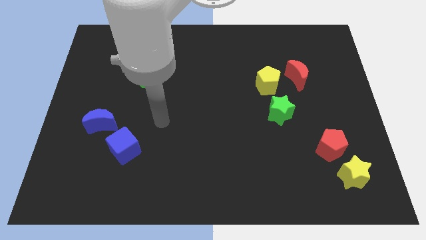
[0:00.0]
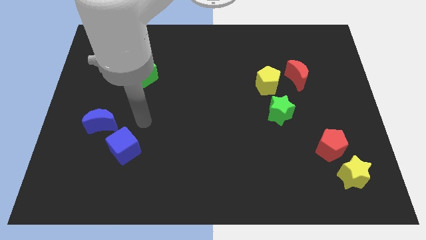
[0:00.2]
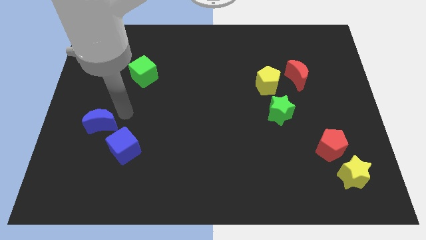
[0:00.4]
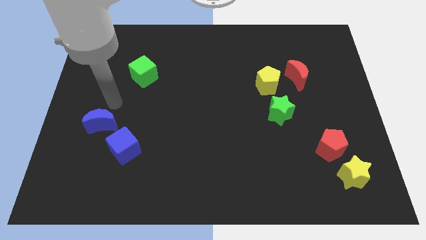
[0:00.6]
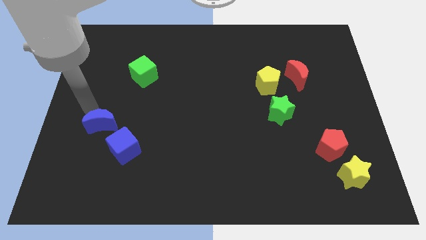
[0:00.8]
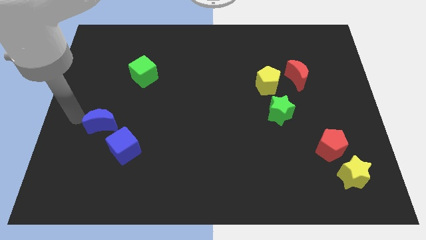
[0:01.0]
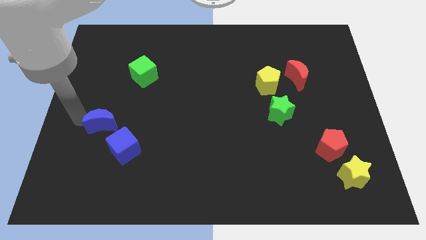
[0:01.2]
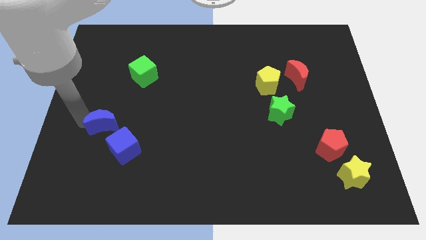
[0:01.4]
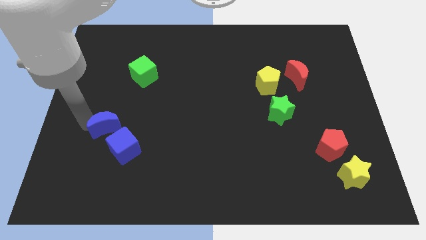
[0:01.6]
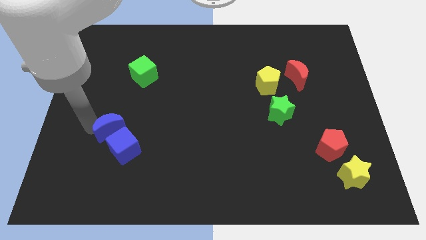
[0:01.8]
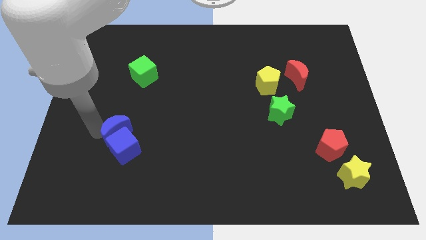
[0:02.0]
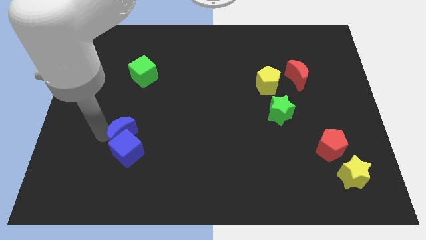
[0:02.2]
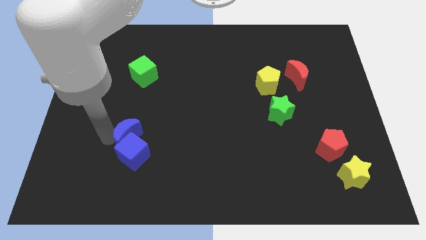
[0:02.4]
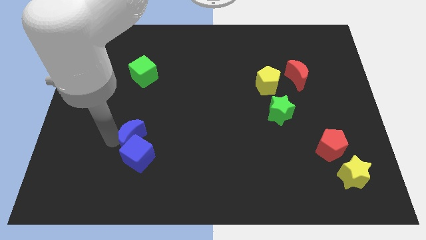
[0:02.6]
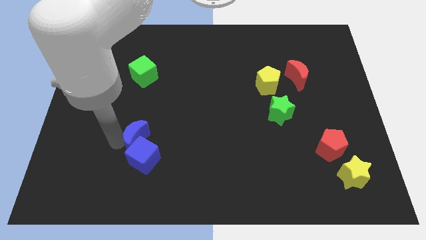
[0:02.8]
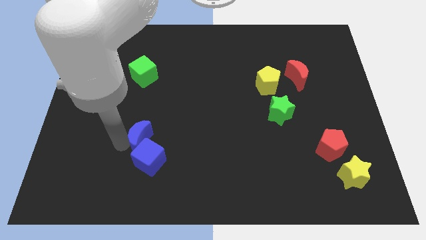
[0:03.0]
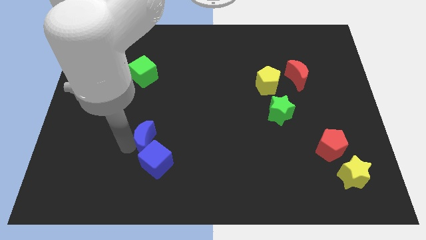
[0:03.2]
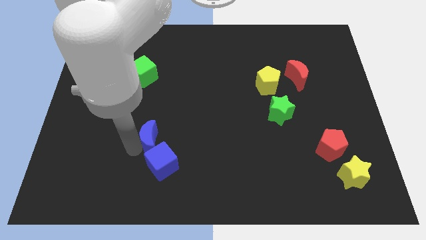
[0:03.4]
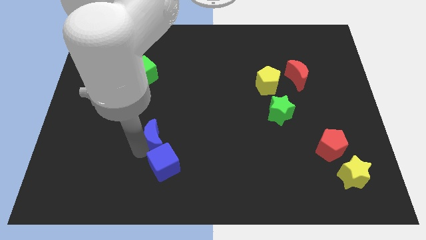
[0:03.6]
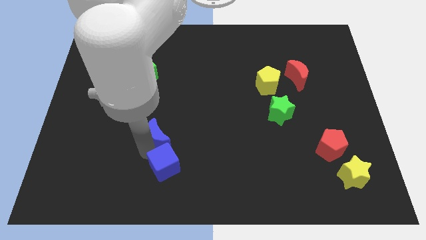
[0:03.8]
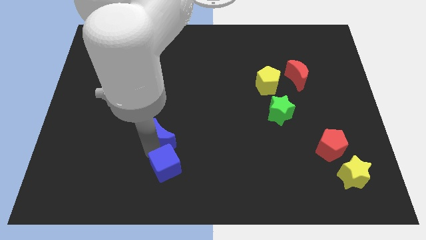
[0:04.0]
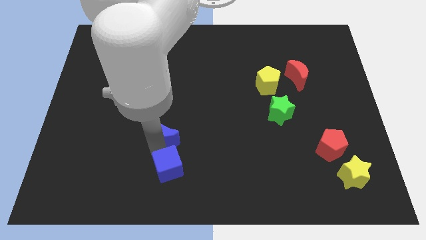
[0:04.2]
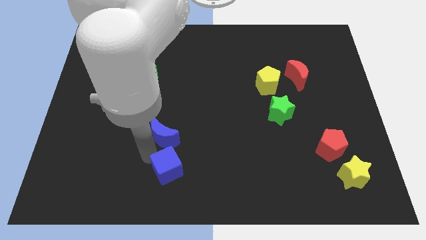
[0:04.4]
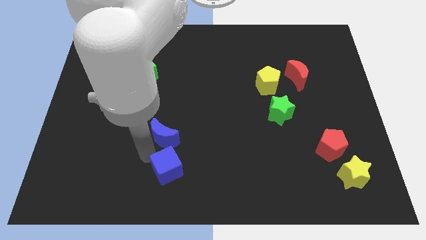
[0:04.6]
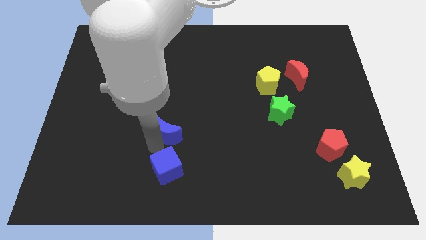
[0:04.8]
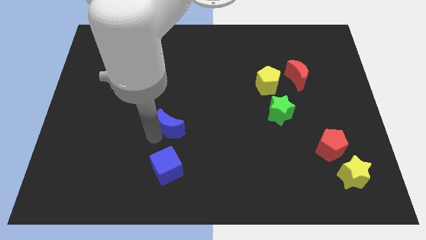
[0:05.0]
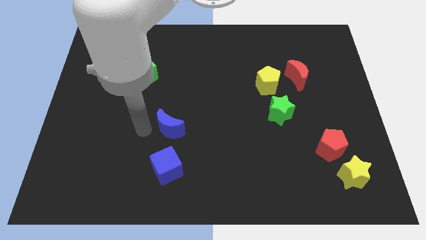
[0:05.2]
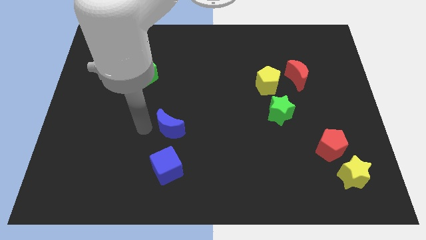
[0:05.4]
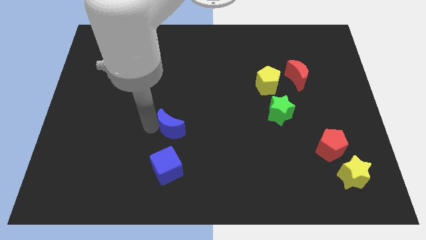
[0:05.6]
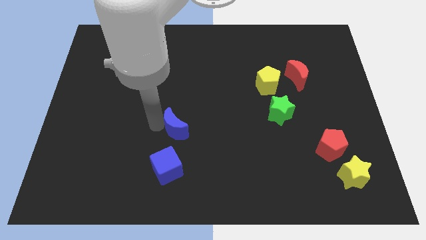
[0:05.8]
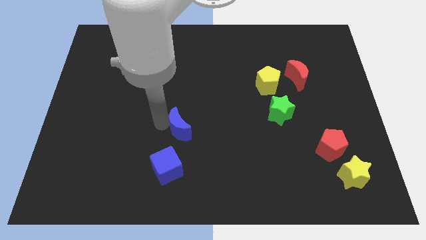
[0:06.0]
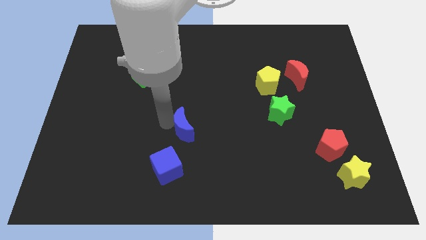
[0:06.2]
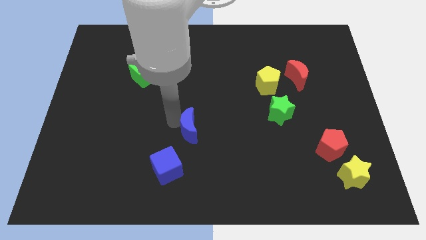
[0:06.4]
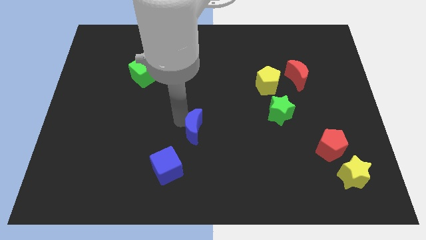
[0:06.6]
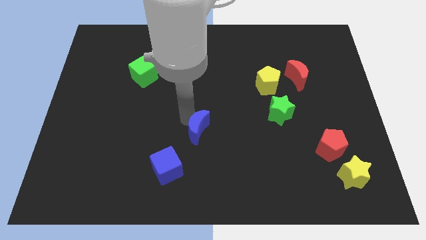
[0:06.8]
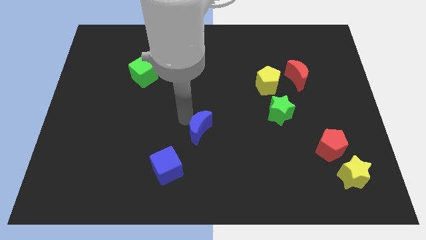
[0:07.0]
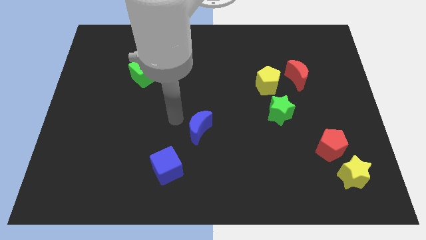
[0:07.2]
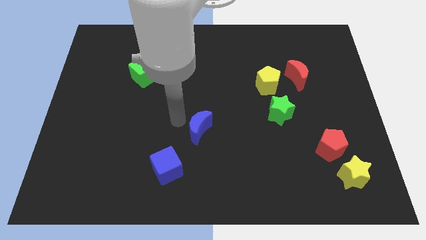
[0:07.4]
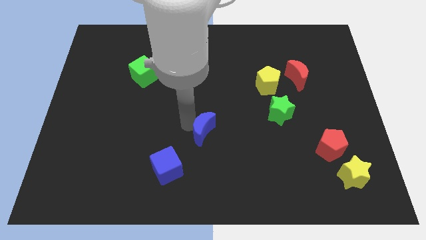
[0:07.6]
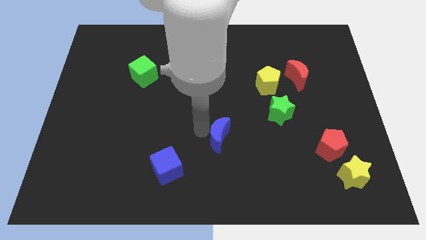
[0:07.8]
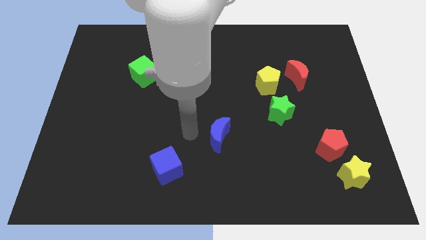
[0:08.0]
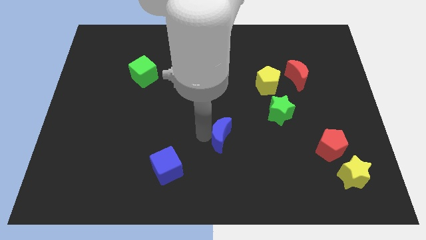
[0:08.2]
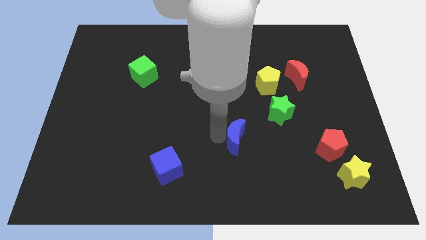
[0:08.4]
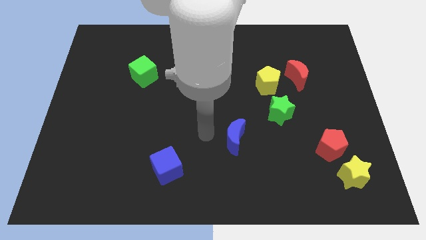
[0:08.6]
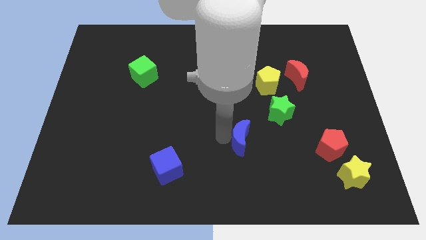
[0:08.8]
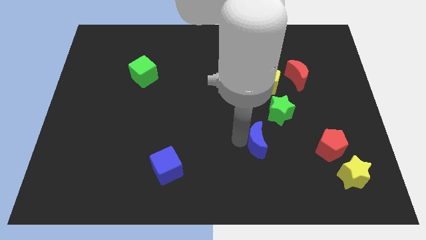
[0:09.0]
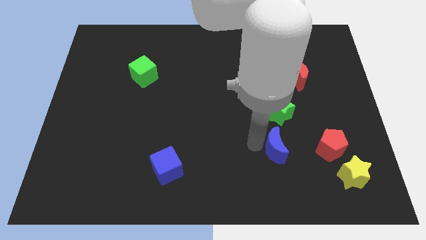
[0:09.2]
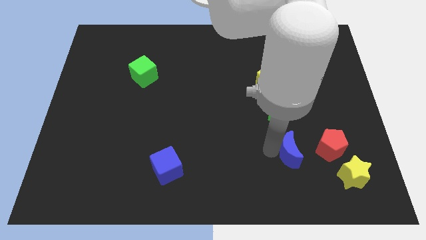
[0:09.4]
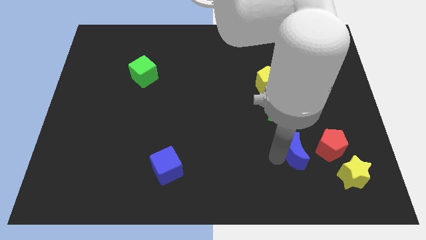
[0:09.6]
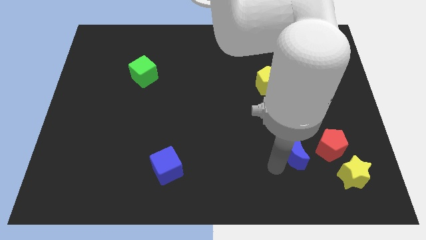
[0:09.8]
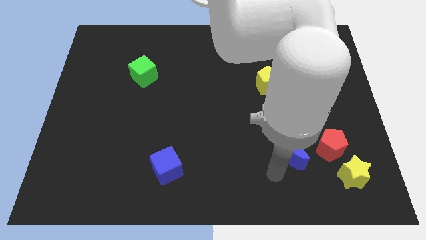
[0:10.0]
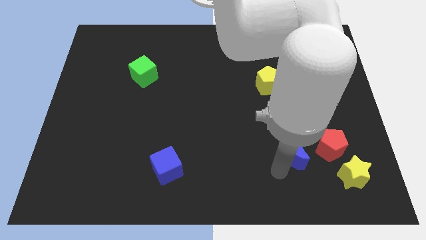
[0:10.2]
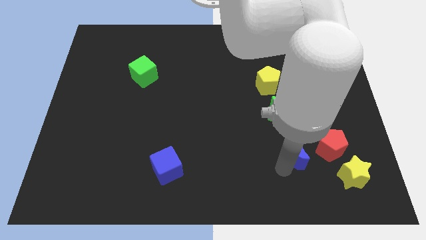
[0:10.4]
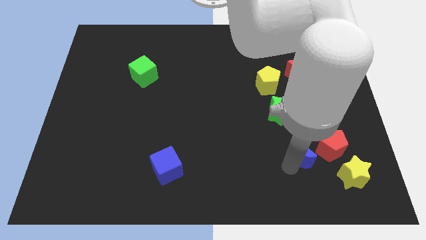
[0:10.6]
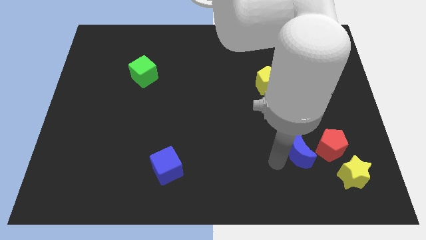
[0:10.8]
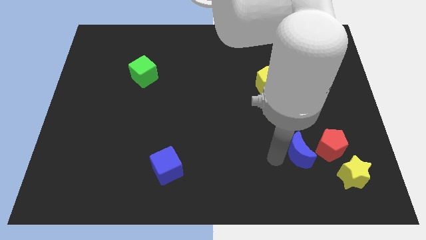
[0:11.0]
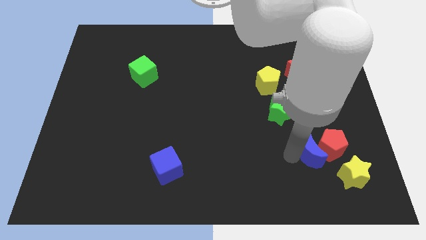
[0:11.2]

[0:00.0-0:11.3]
move the blue moon next to the red pentagon

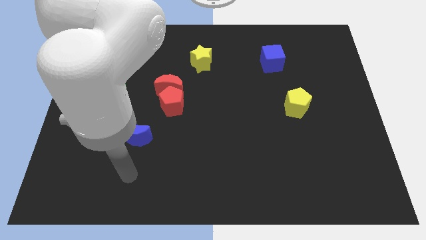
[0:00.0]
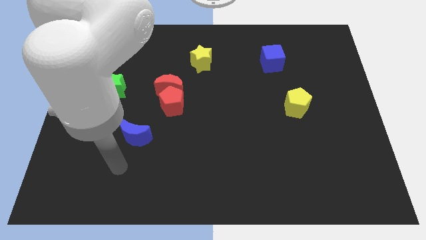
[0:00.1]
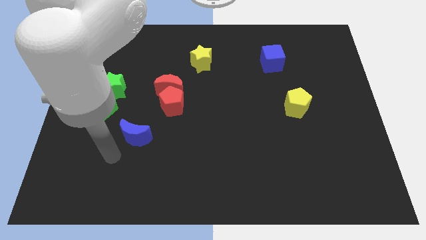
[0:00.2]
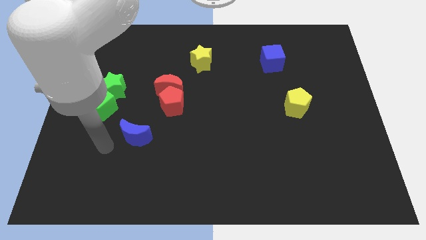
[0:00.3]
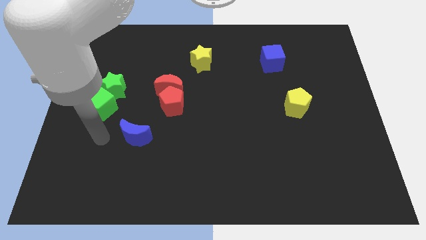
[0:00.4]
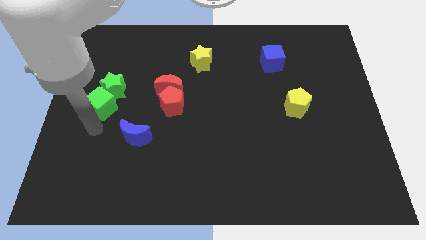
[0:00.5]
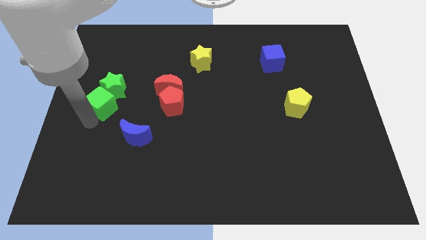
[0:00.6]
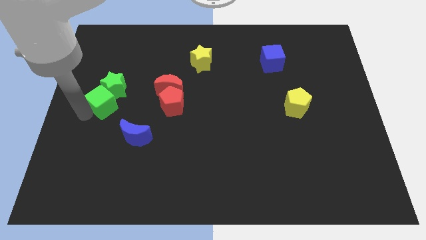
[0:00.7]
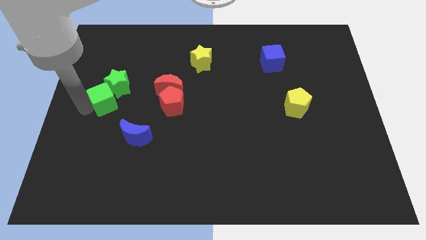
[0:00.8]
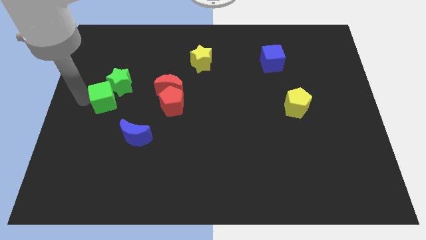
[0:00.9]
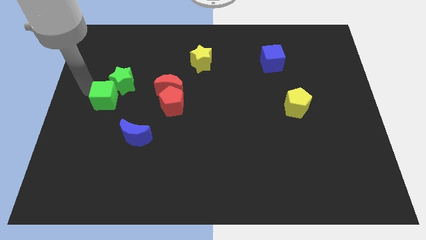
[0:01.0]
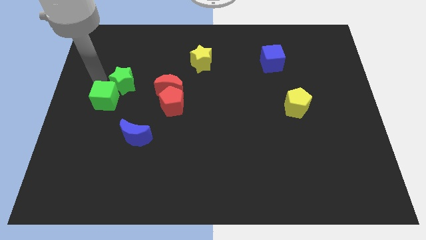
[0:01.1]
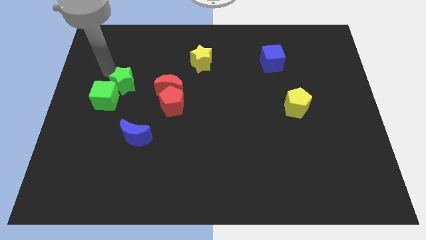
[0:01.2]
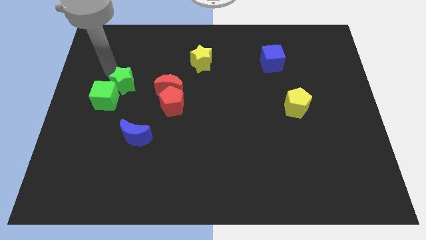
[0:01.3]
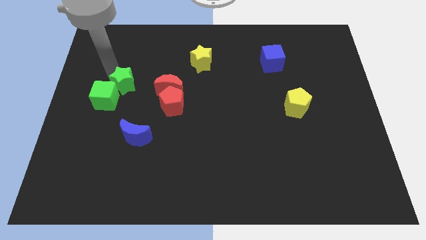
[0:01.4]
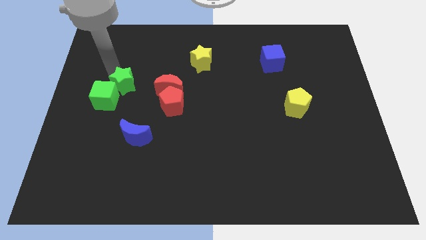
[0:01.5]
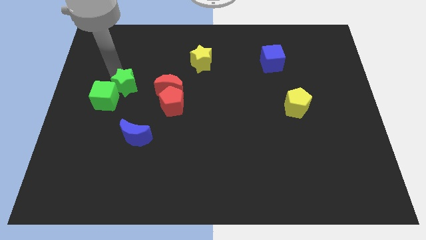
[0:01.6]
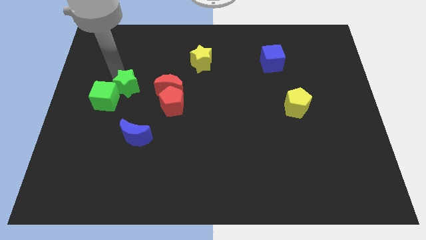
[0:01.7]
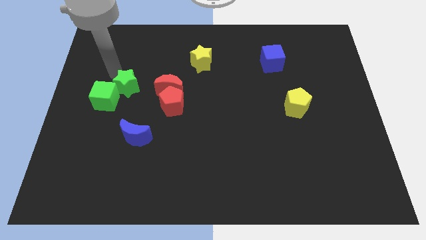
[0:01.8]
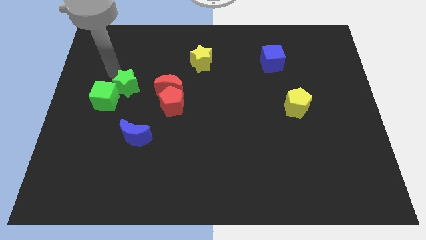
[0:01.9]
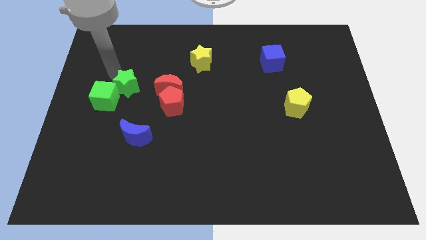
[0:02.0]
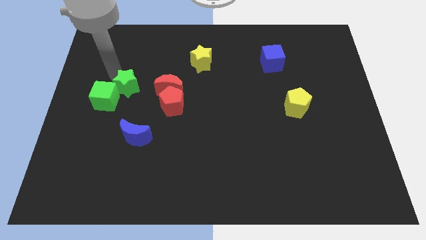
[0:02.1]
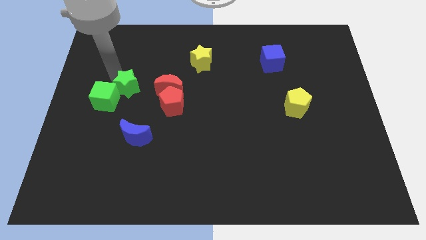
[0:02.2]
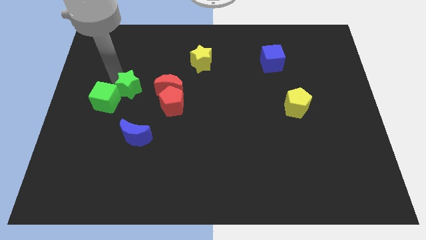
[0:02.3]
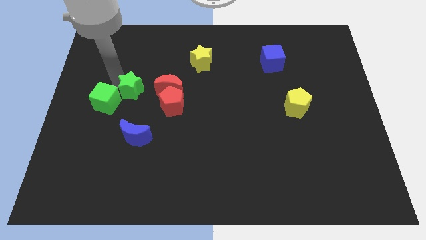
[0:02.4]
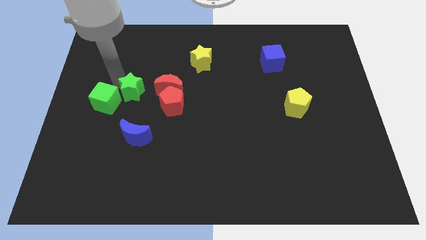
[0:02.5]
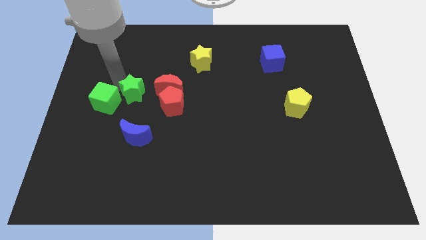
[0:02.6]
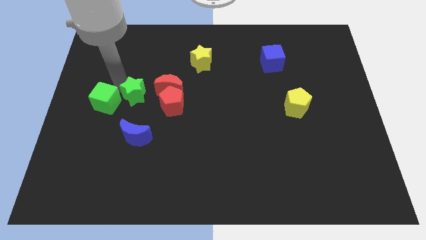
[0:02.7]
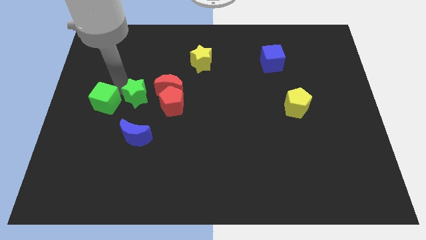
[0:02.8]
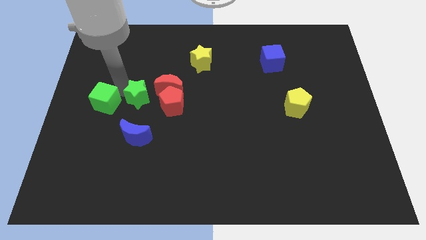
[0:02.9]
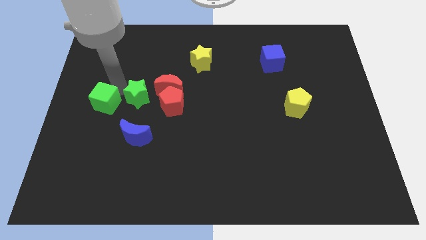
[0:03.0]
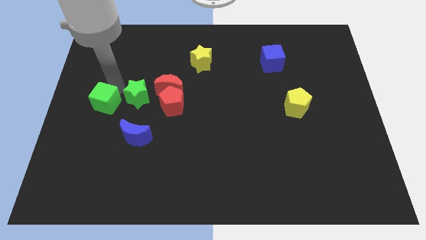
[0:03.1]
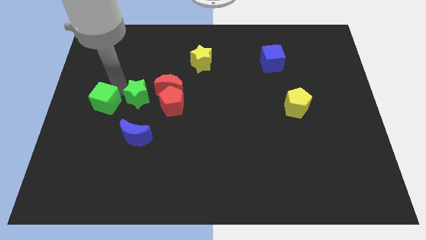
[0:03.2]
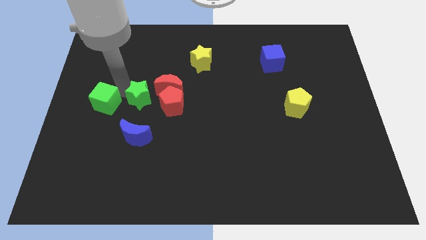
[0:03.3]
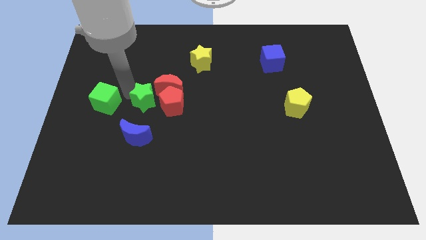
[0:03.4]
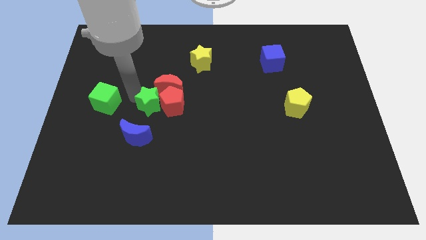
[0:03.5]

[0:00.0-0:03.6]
put the green star to the red pentagon
